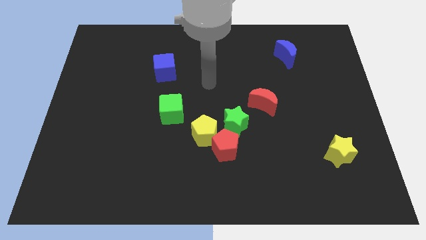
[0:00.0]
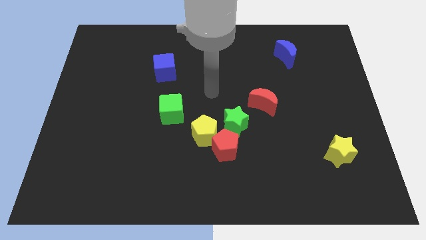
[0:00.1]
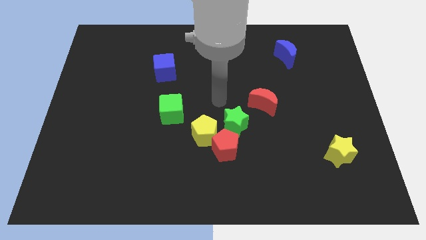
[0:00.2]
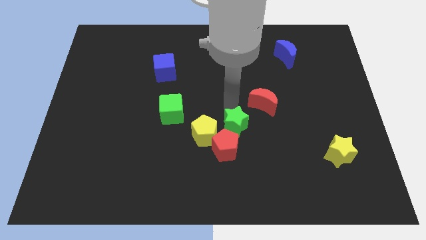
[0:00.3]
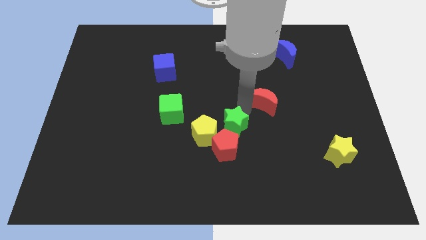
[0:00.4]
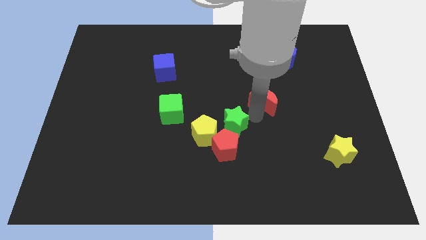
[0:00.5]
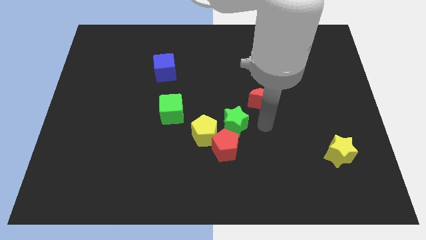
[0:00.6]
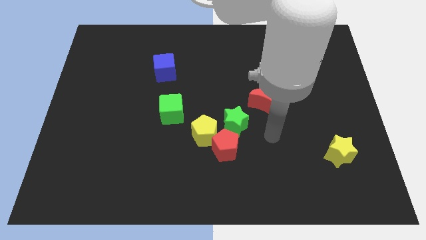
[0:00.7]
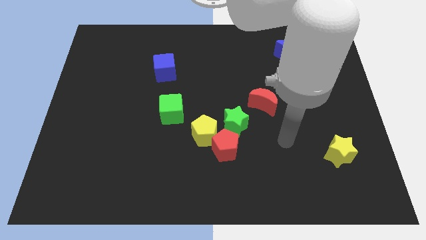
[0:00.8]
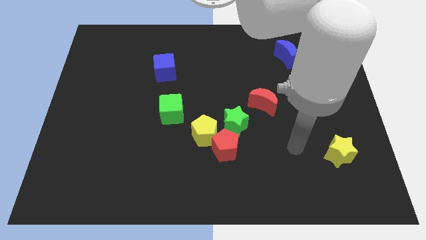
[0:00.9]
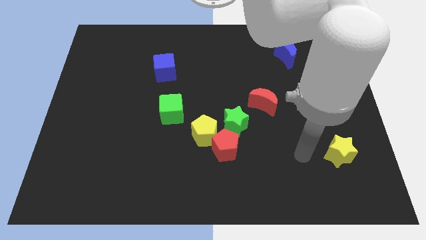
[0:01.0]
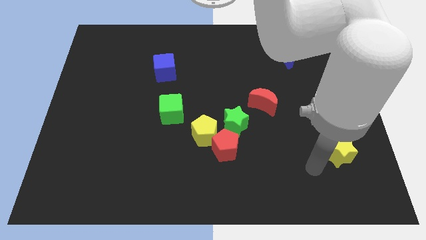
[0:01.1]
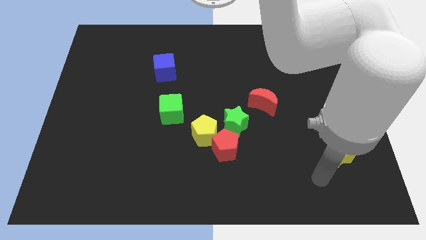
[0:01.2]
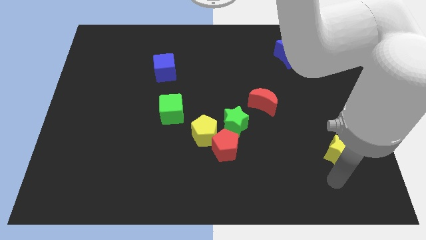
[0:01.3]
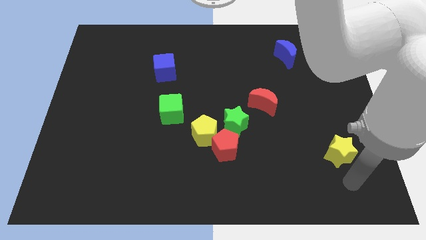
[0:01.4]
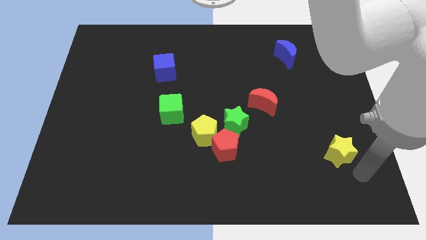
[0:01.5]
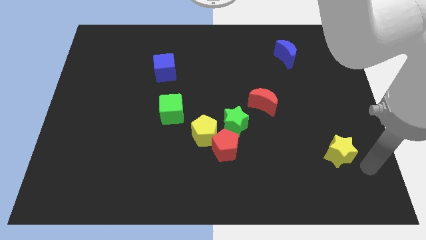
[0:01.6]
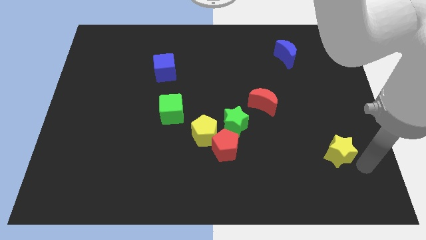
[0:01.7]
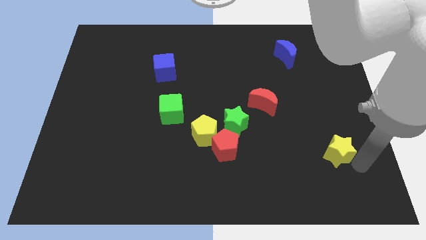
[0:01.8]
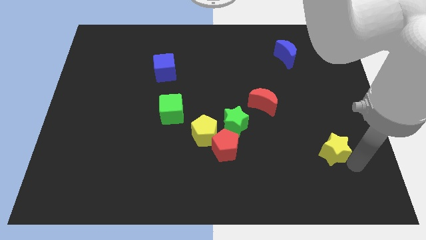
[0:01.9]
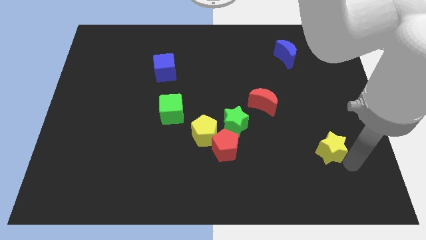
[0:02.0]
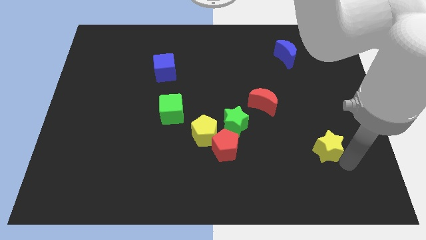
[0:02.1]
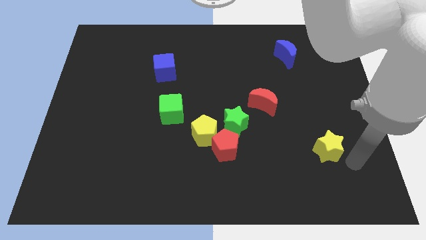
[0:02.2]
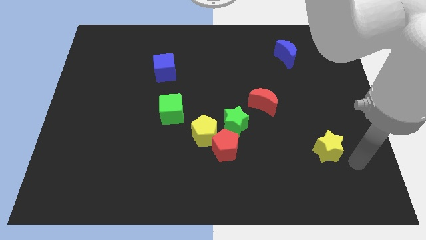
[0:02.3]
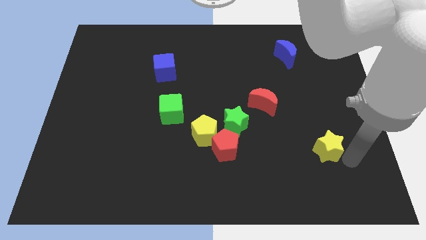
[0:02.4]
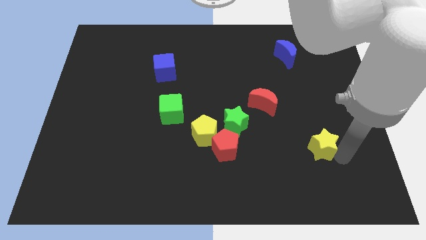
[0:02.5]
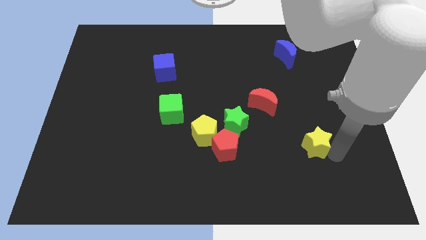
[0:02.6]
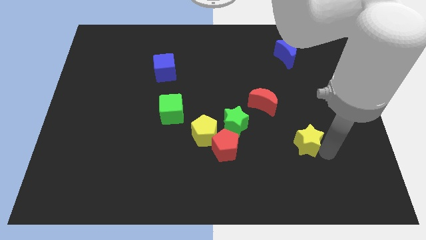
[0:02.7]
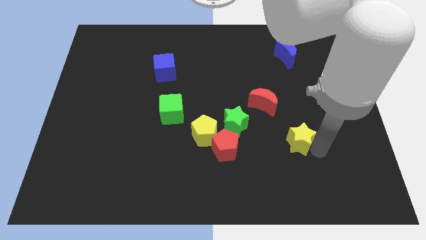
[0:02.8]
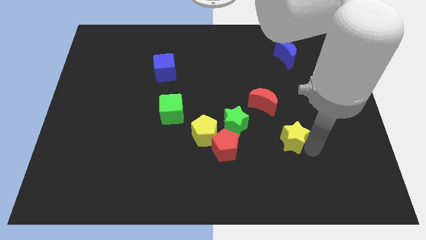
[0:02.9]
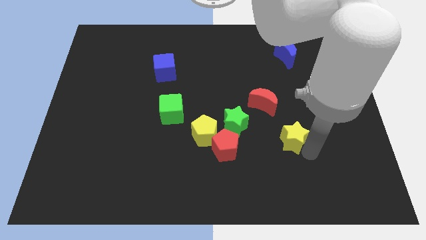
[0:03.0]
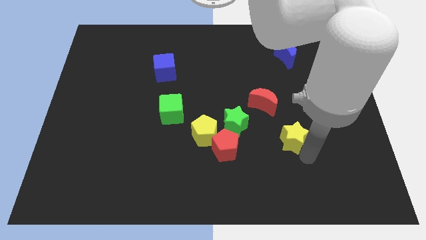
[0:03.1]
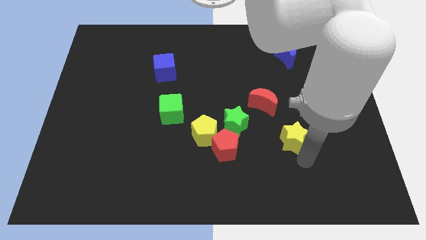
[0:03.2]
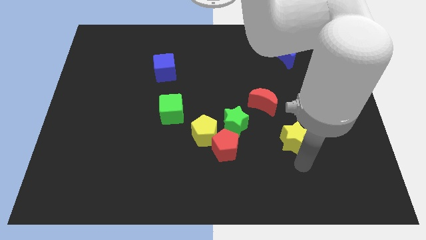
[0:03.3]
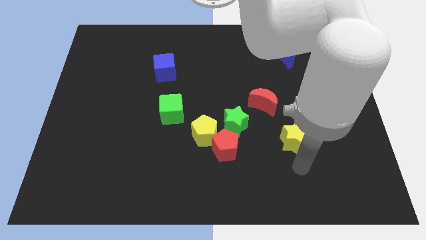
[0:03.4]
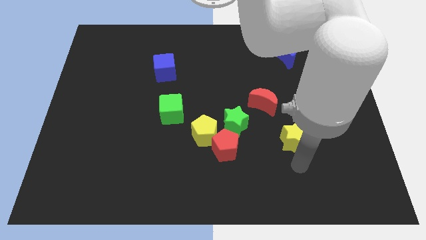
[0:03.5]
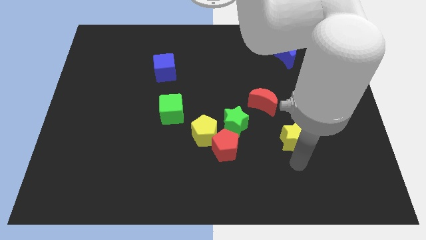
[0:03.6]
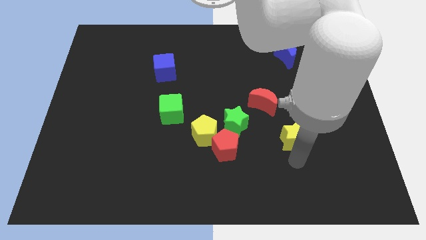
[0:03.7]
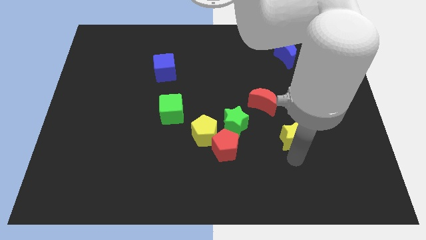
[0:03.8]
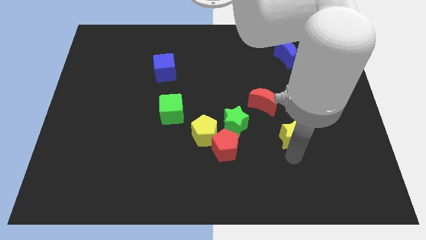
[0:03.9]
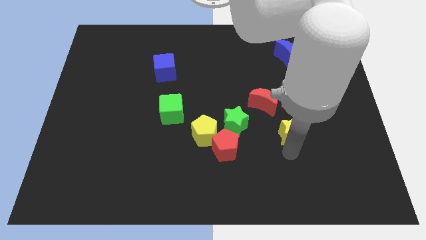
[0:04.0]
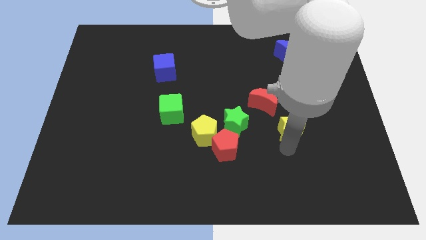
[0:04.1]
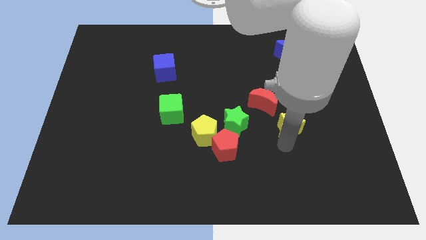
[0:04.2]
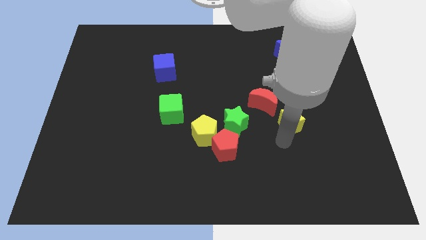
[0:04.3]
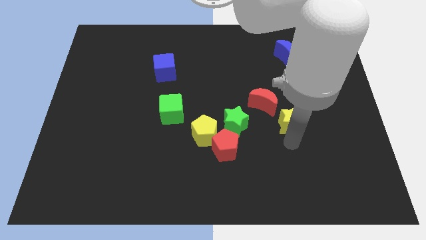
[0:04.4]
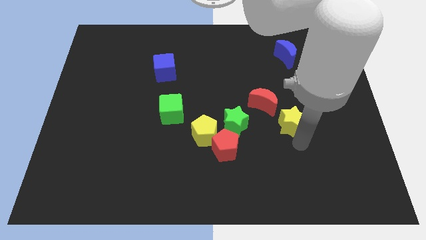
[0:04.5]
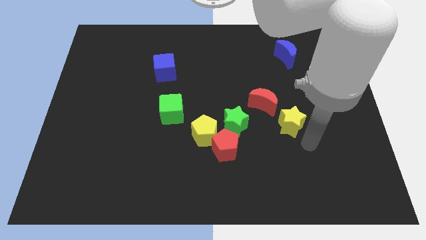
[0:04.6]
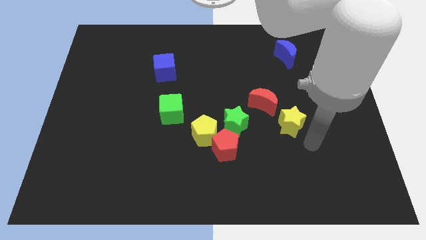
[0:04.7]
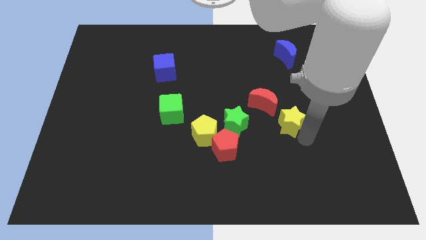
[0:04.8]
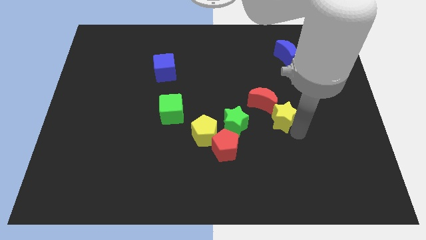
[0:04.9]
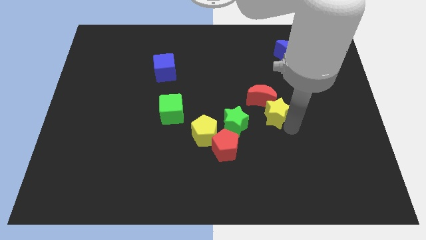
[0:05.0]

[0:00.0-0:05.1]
move the yellow star towards the red moon

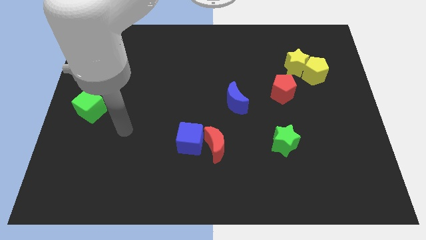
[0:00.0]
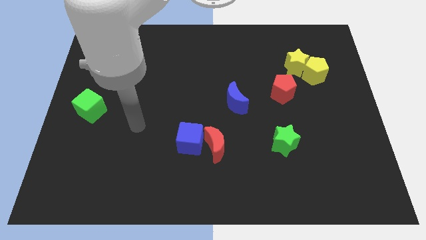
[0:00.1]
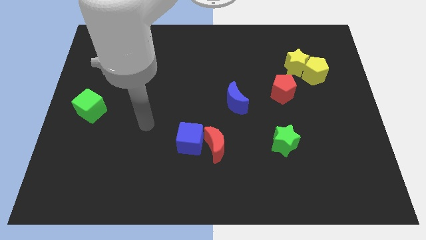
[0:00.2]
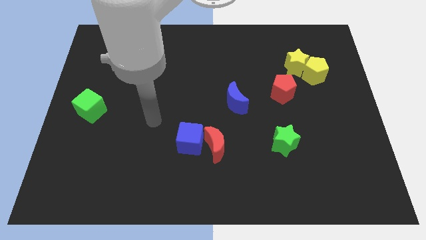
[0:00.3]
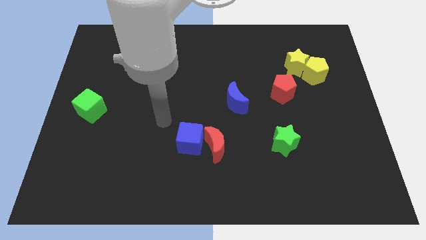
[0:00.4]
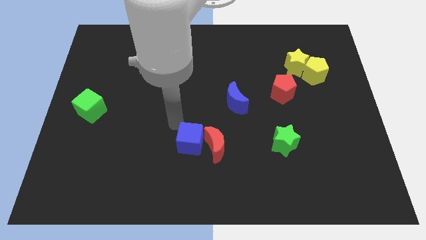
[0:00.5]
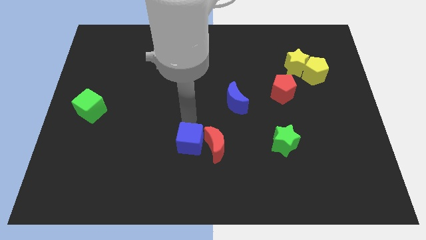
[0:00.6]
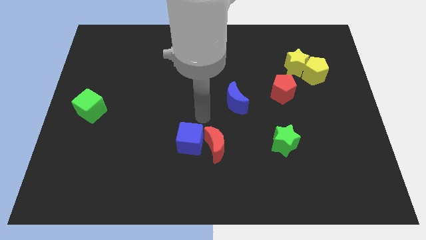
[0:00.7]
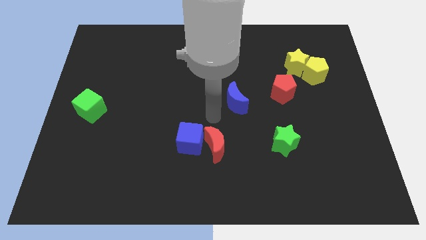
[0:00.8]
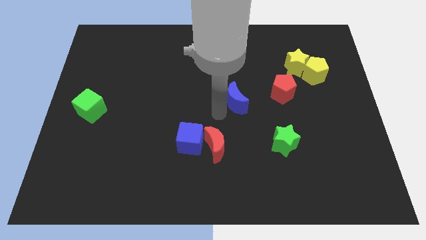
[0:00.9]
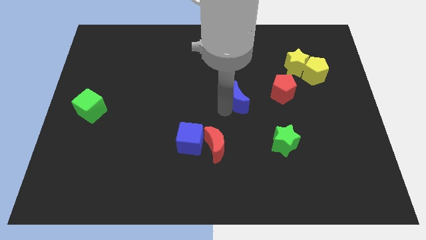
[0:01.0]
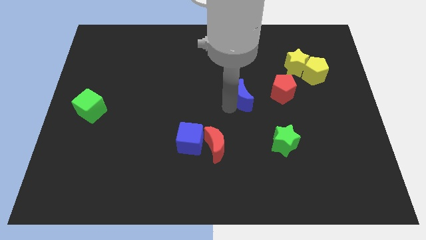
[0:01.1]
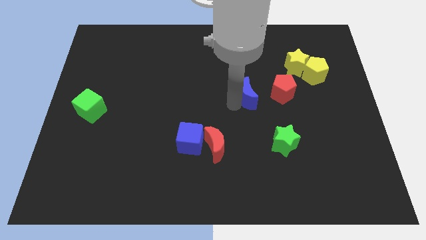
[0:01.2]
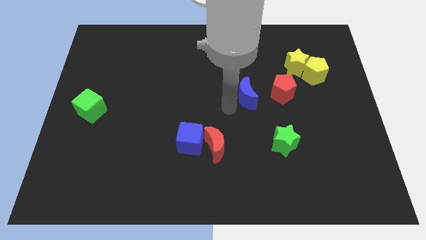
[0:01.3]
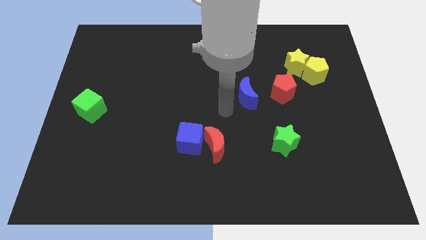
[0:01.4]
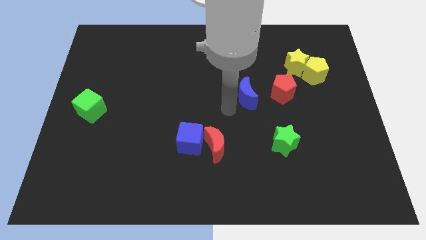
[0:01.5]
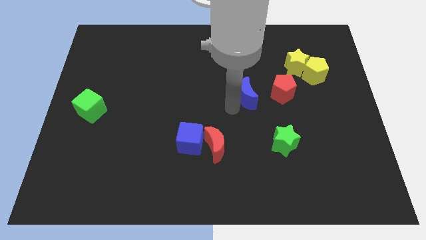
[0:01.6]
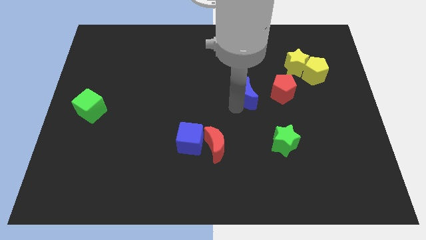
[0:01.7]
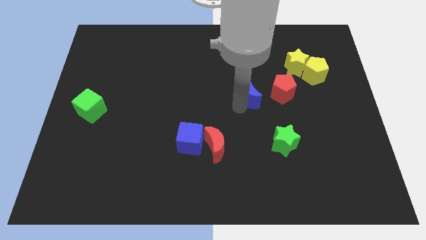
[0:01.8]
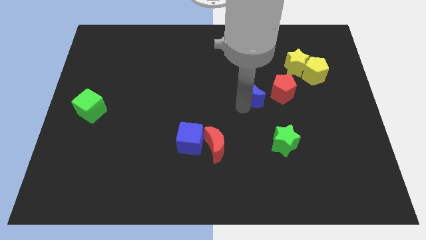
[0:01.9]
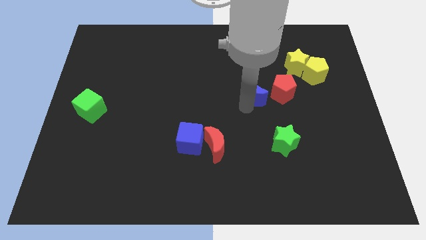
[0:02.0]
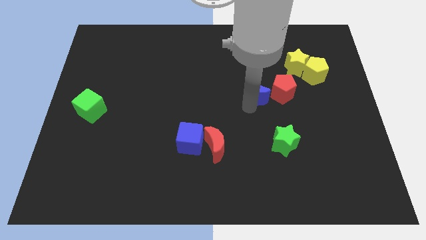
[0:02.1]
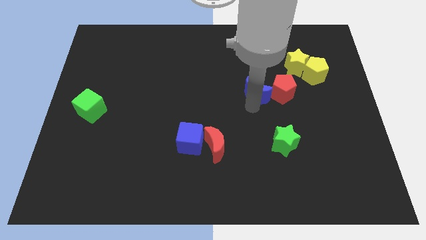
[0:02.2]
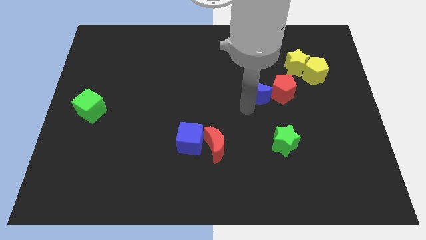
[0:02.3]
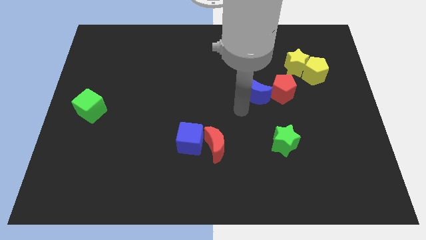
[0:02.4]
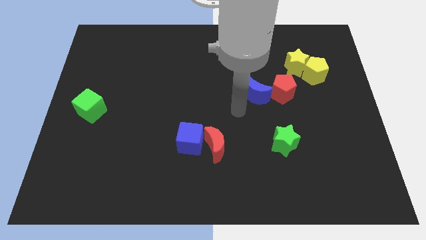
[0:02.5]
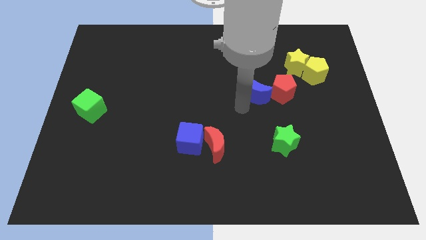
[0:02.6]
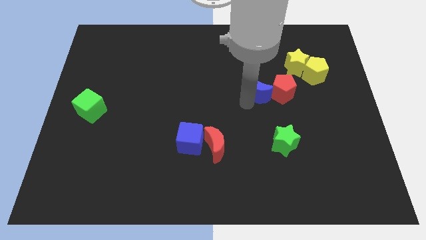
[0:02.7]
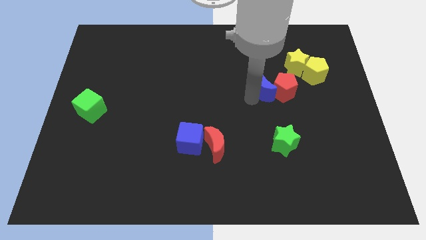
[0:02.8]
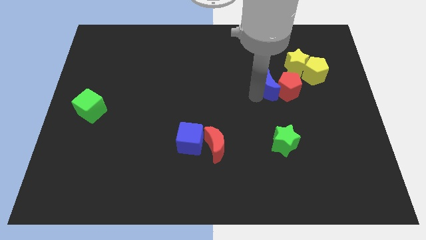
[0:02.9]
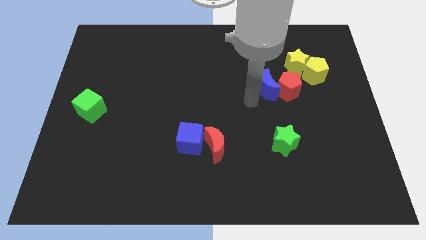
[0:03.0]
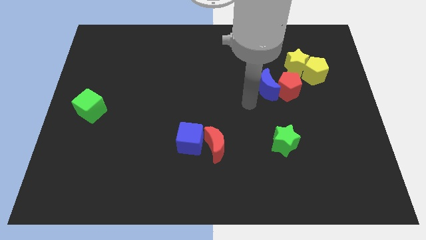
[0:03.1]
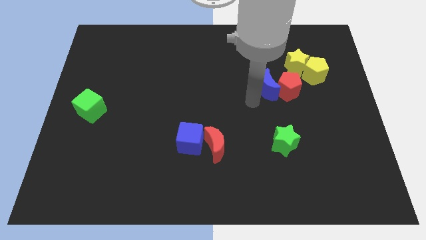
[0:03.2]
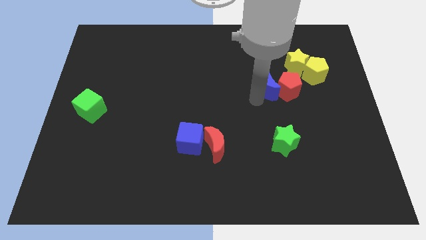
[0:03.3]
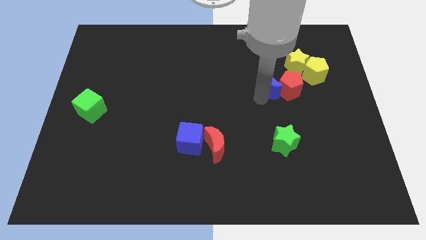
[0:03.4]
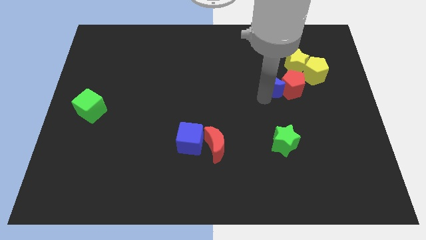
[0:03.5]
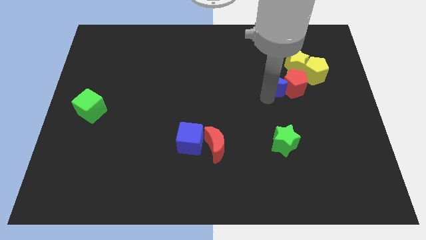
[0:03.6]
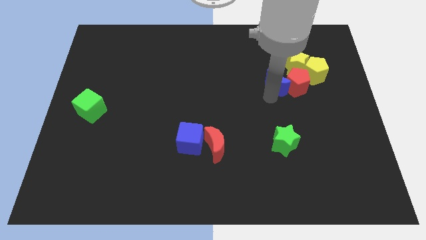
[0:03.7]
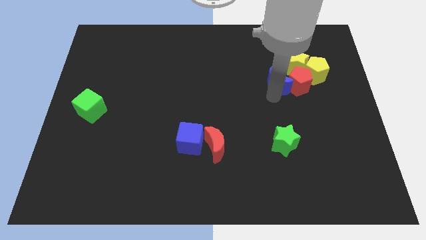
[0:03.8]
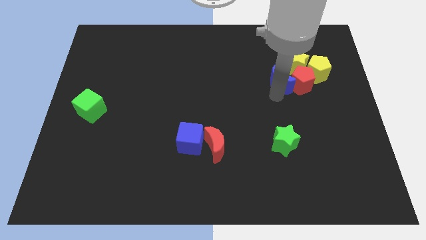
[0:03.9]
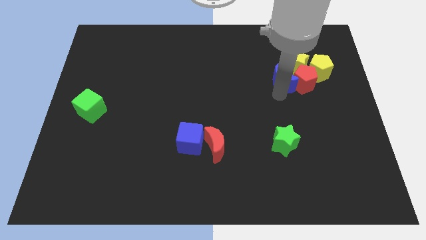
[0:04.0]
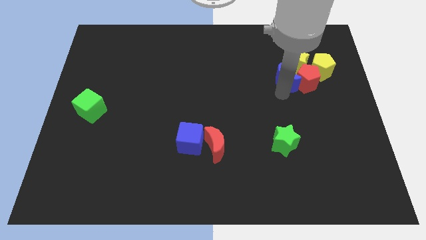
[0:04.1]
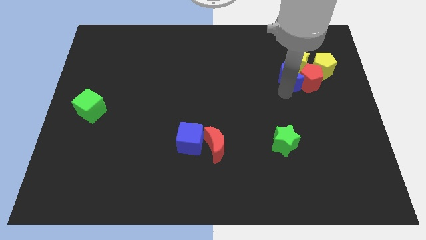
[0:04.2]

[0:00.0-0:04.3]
push the blue moon close to the yellow star
